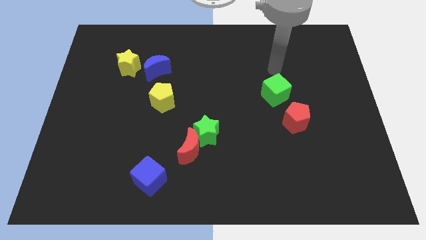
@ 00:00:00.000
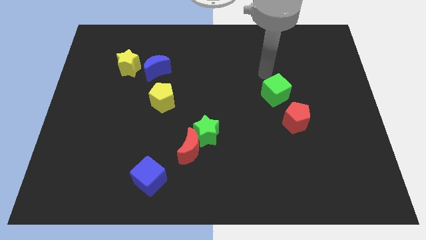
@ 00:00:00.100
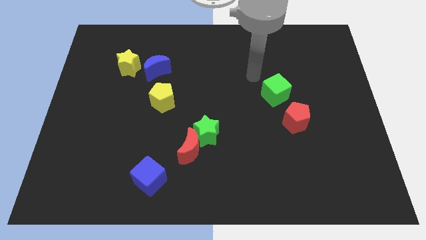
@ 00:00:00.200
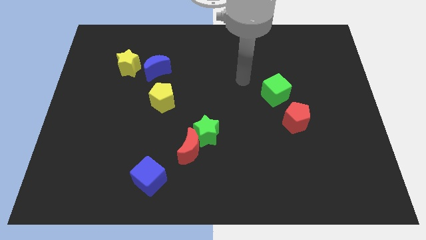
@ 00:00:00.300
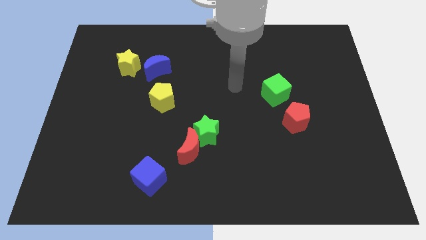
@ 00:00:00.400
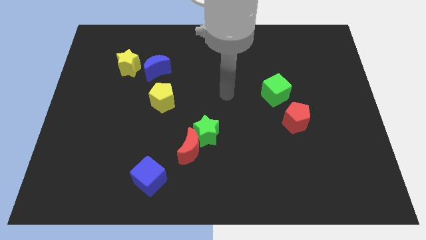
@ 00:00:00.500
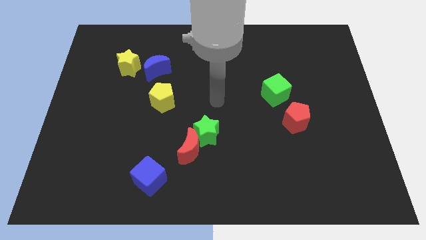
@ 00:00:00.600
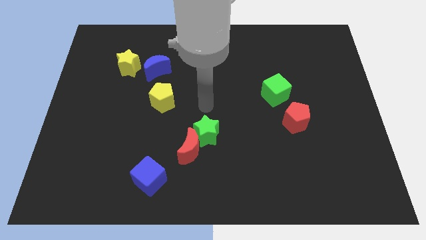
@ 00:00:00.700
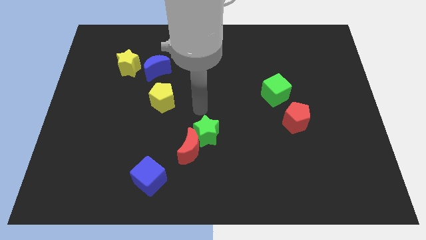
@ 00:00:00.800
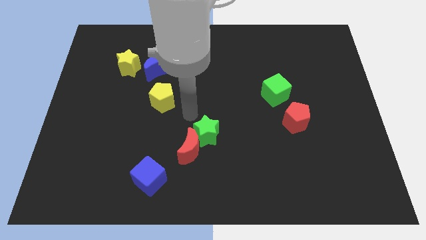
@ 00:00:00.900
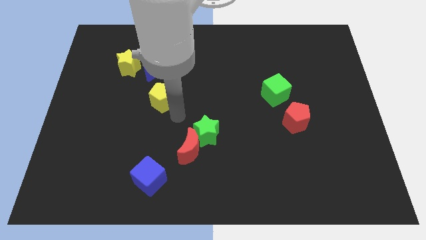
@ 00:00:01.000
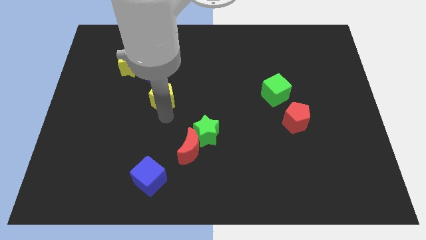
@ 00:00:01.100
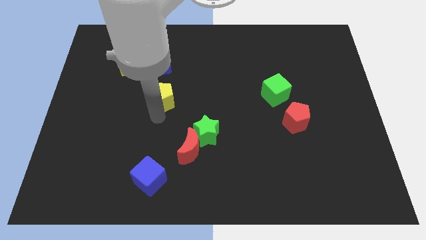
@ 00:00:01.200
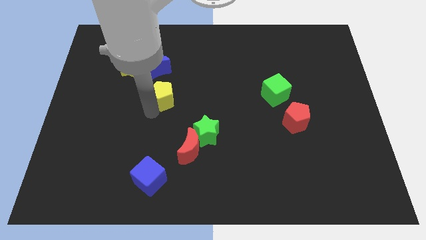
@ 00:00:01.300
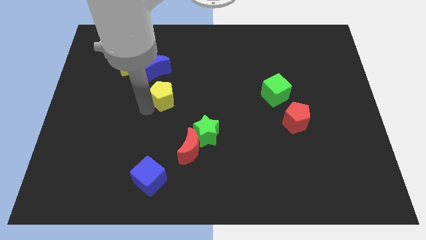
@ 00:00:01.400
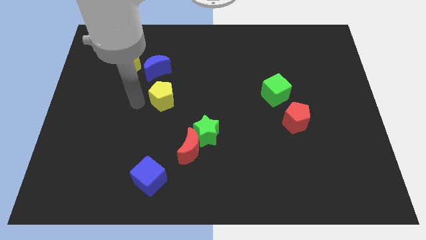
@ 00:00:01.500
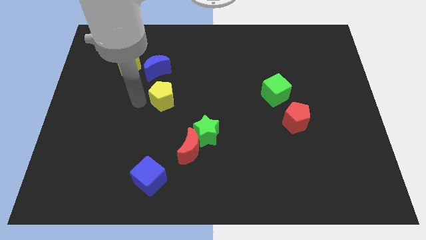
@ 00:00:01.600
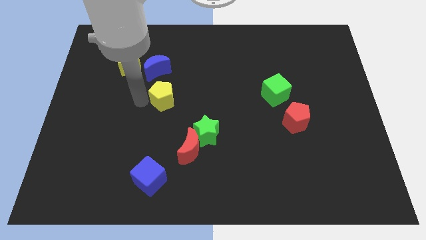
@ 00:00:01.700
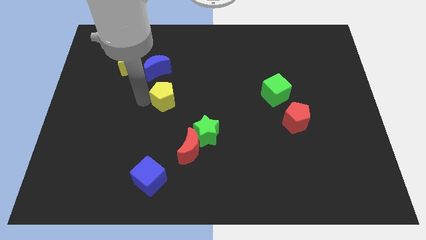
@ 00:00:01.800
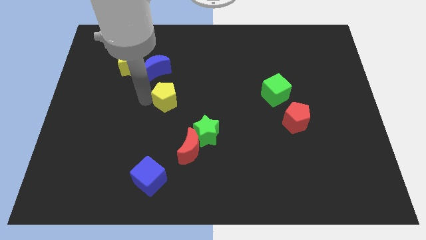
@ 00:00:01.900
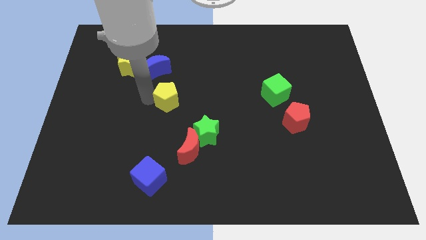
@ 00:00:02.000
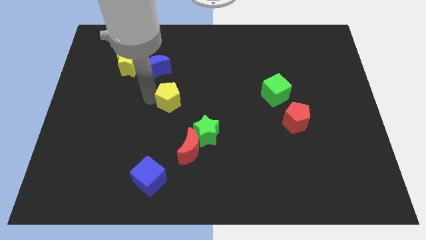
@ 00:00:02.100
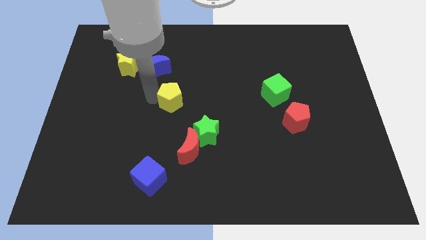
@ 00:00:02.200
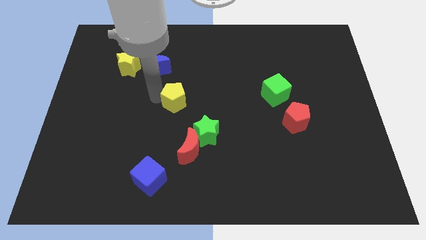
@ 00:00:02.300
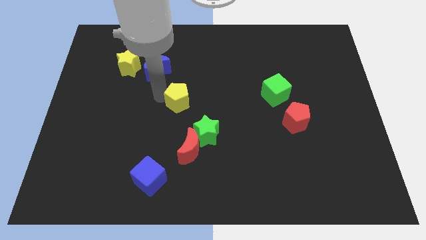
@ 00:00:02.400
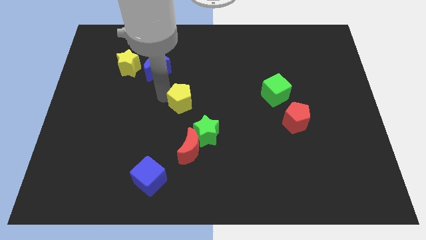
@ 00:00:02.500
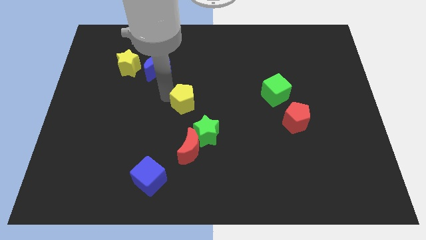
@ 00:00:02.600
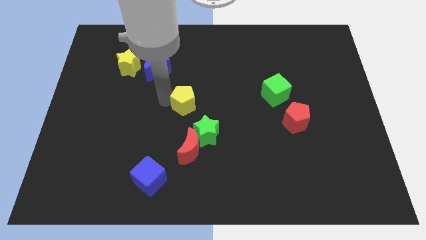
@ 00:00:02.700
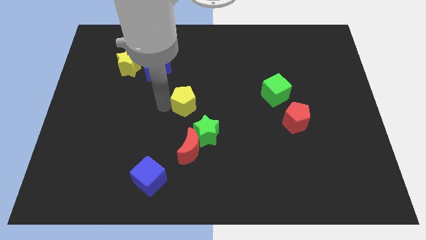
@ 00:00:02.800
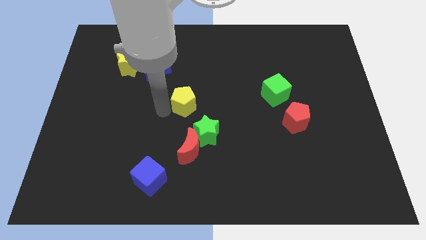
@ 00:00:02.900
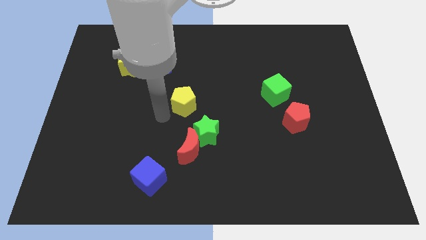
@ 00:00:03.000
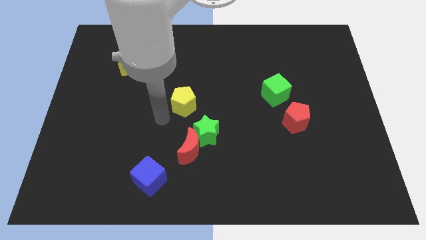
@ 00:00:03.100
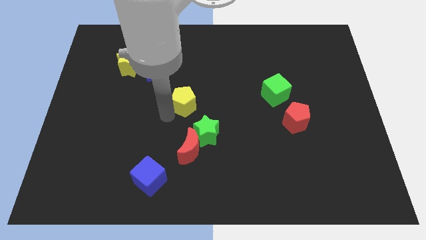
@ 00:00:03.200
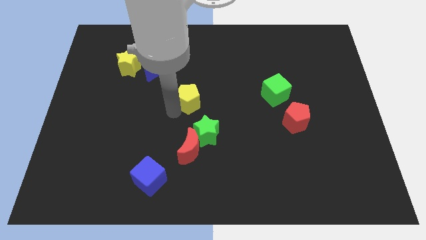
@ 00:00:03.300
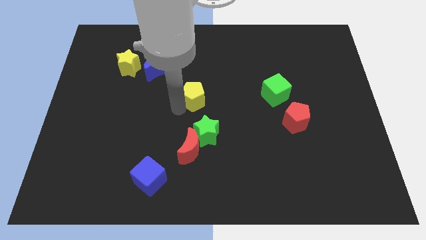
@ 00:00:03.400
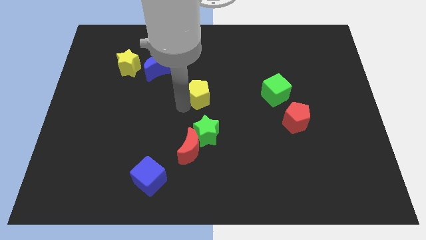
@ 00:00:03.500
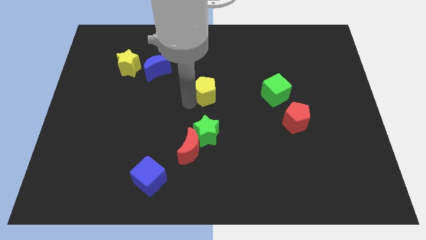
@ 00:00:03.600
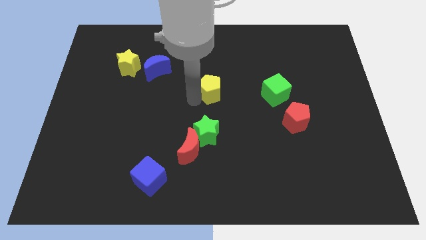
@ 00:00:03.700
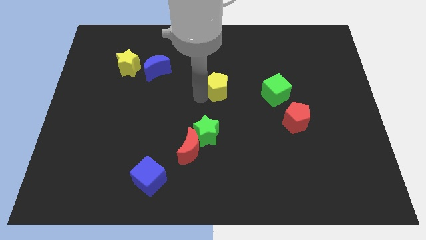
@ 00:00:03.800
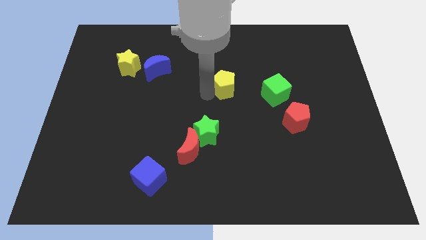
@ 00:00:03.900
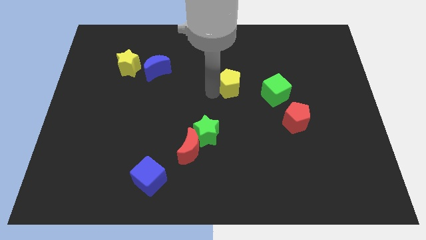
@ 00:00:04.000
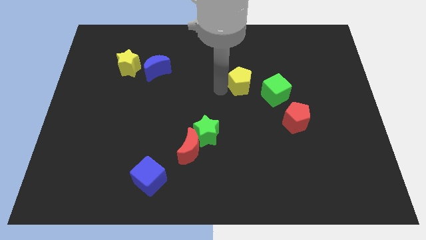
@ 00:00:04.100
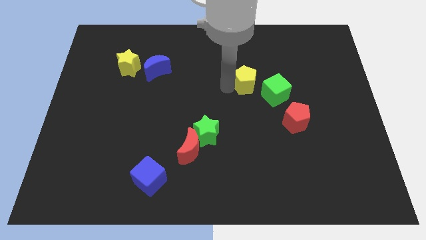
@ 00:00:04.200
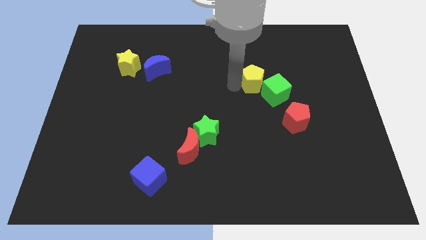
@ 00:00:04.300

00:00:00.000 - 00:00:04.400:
move the yellow pentagon to the right

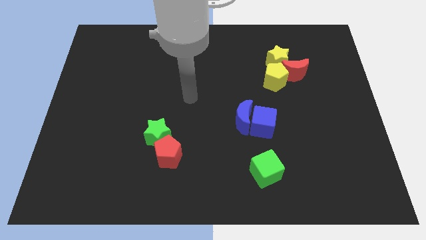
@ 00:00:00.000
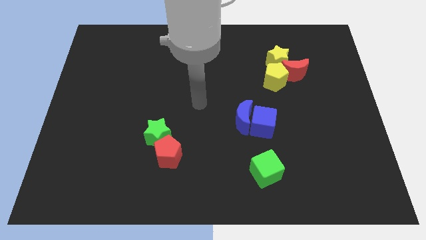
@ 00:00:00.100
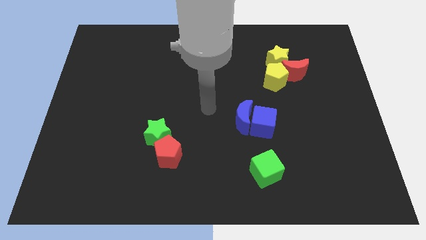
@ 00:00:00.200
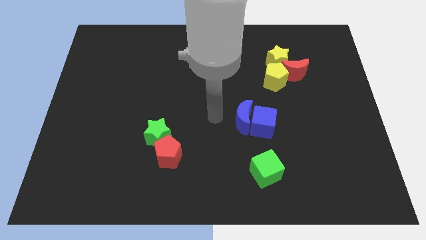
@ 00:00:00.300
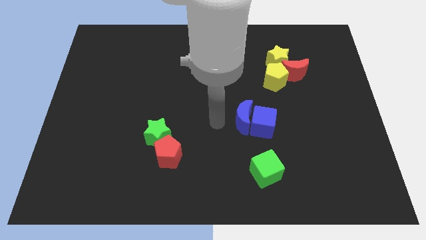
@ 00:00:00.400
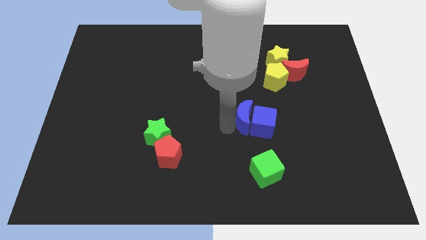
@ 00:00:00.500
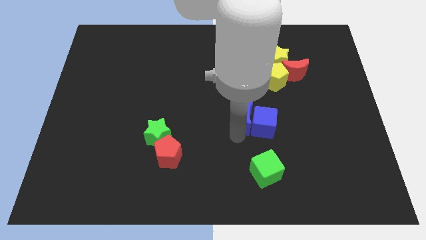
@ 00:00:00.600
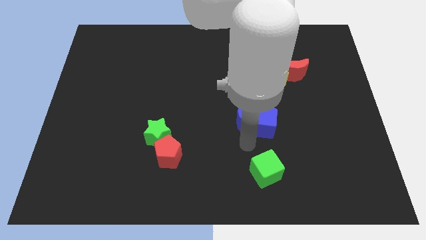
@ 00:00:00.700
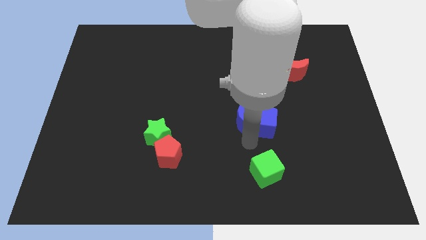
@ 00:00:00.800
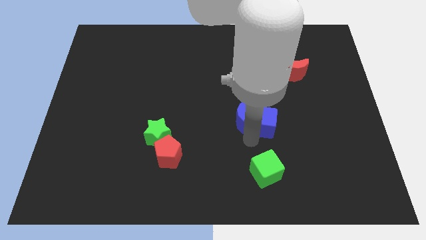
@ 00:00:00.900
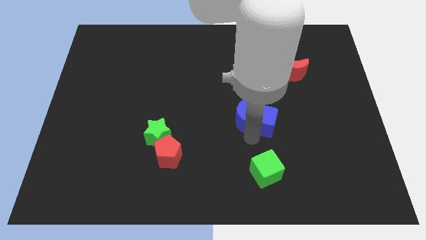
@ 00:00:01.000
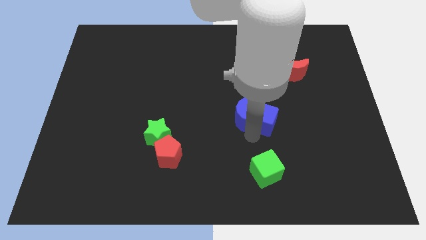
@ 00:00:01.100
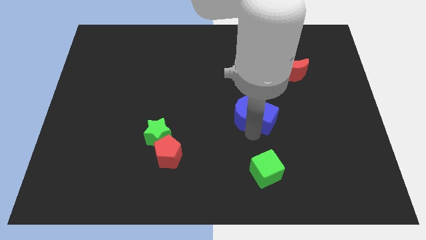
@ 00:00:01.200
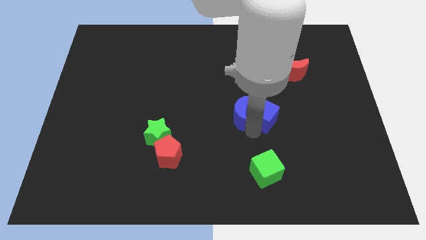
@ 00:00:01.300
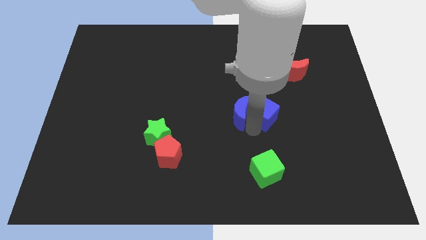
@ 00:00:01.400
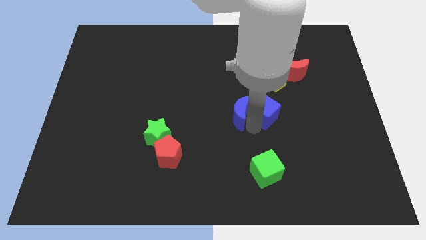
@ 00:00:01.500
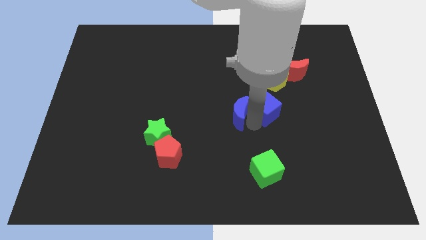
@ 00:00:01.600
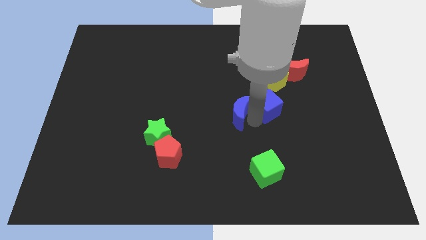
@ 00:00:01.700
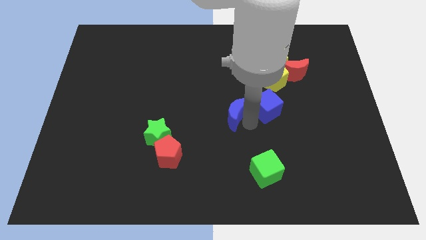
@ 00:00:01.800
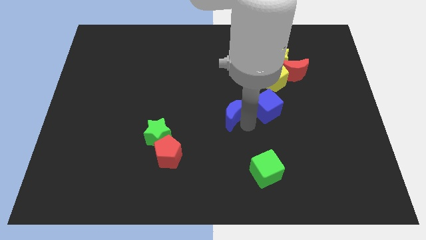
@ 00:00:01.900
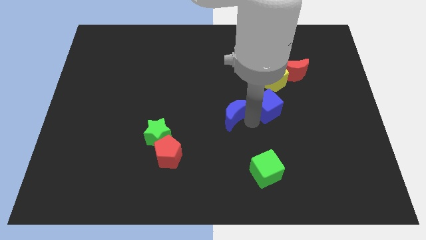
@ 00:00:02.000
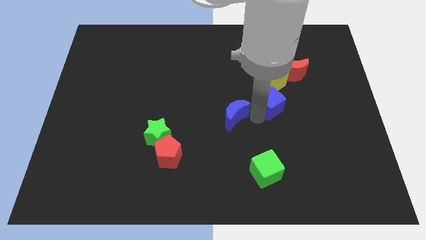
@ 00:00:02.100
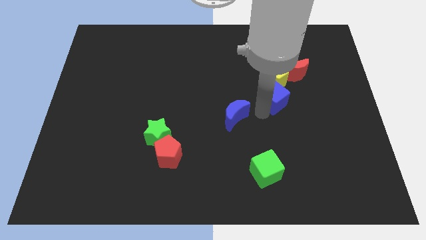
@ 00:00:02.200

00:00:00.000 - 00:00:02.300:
slightly slide the blue cube upwards and then right

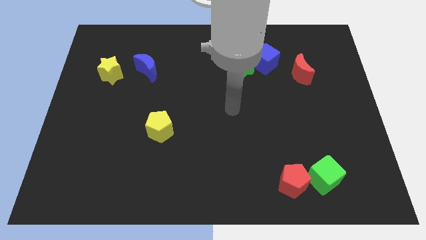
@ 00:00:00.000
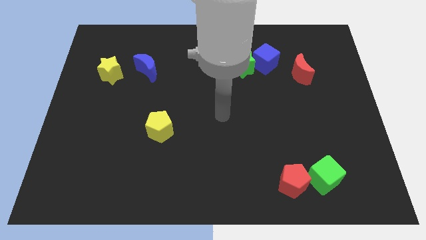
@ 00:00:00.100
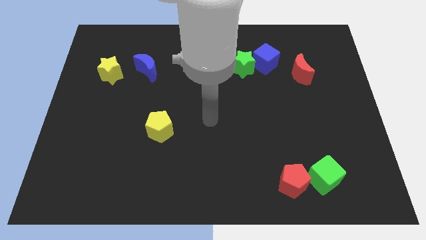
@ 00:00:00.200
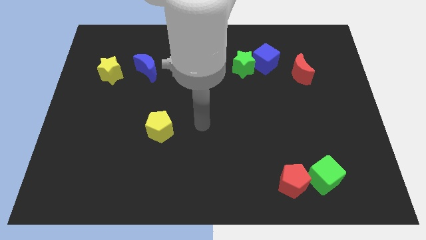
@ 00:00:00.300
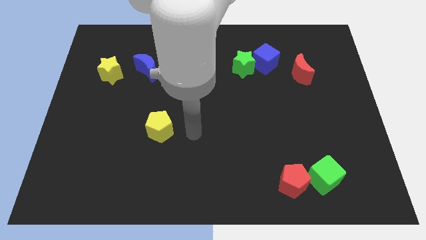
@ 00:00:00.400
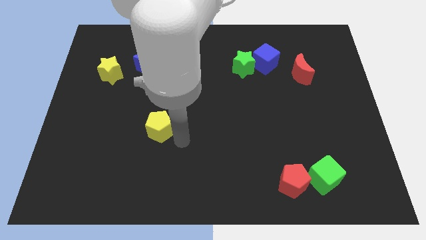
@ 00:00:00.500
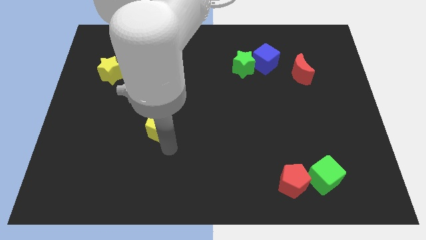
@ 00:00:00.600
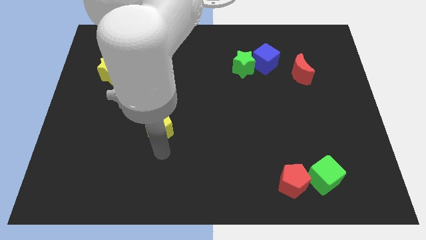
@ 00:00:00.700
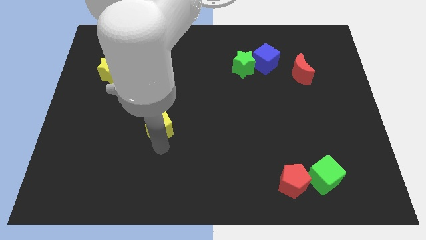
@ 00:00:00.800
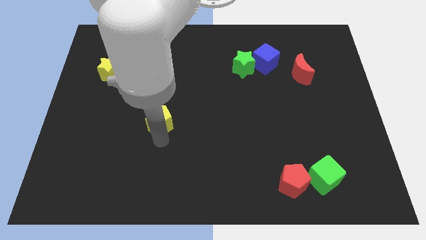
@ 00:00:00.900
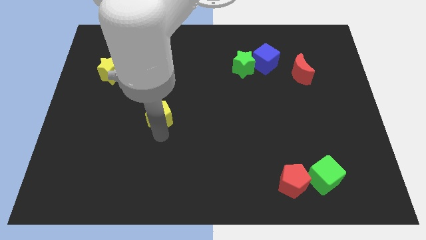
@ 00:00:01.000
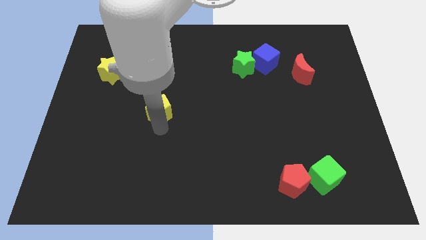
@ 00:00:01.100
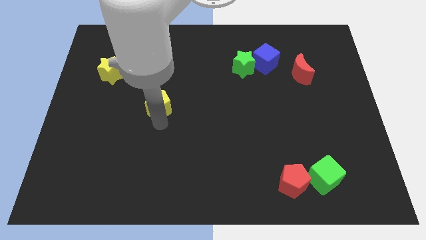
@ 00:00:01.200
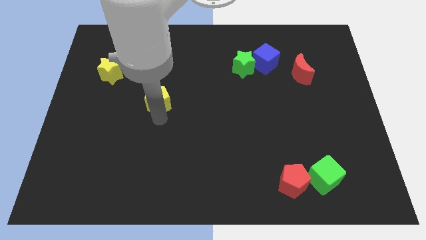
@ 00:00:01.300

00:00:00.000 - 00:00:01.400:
push the yellow pentagon upwards a little

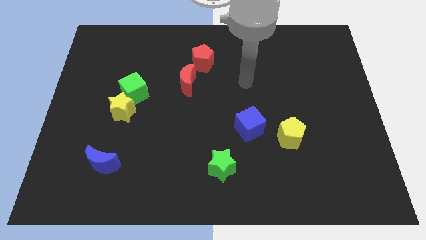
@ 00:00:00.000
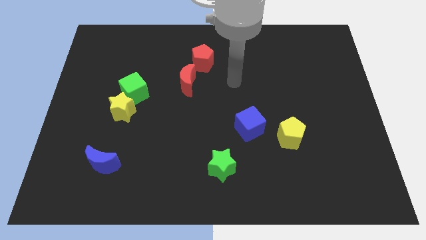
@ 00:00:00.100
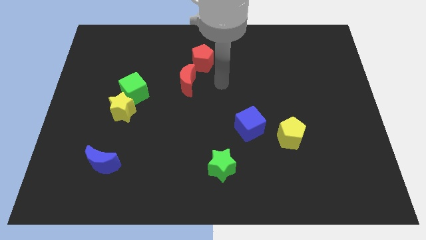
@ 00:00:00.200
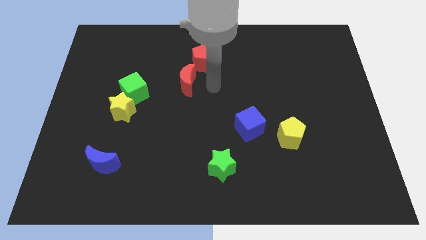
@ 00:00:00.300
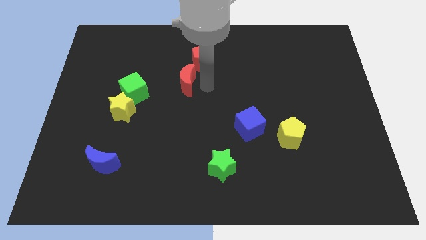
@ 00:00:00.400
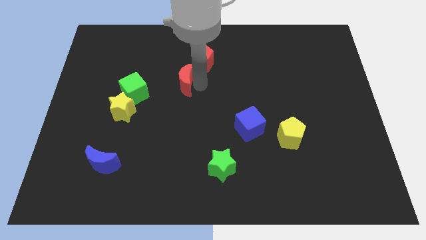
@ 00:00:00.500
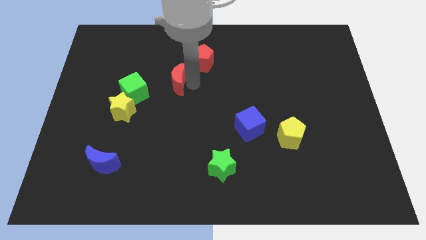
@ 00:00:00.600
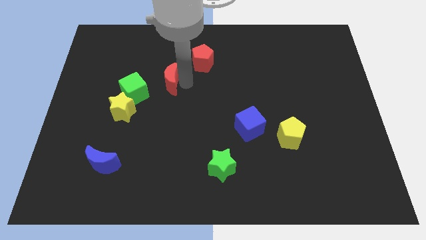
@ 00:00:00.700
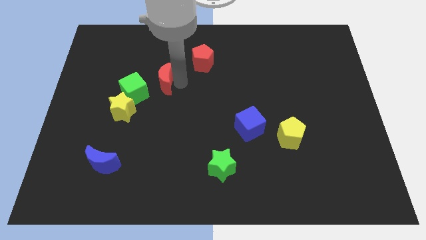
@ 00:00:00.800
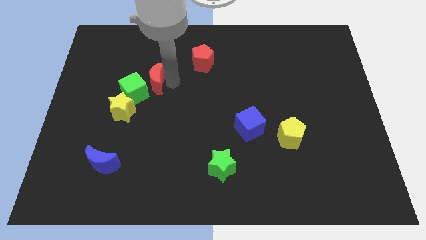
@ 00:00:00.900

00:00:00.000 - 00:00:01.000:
slightly push the red moon to the left
